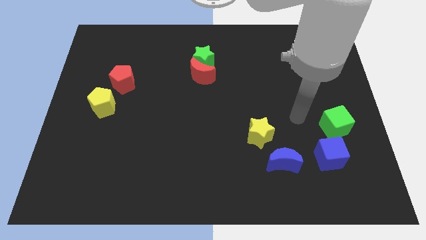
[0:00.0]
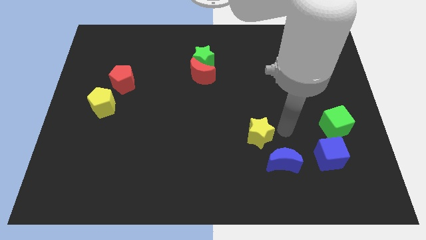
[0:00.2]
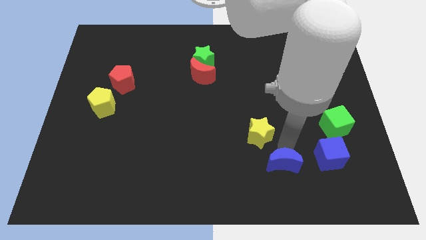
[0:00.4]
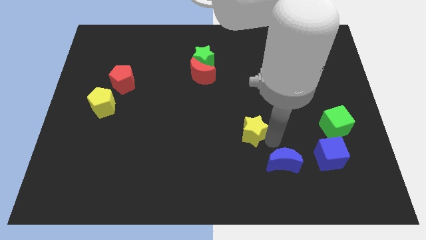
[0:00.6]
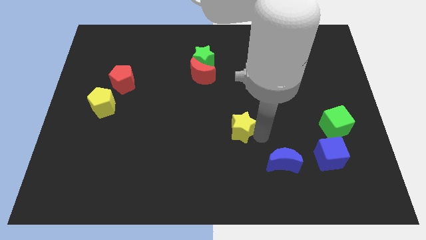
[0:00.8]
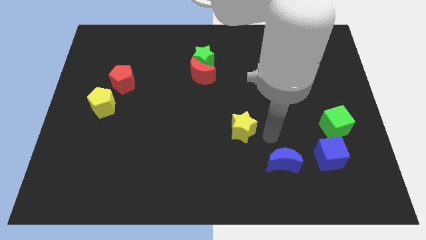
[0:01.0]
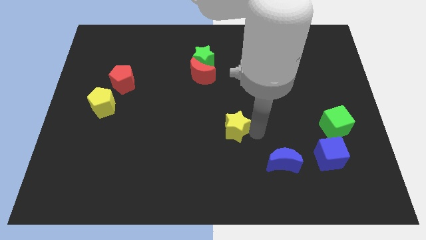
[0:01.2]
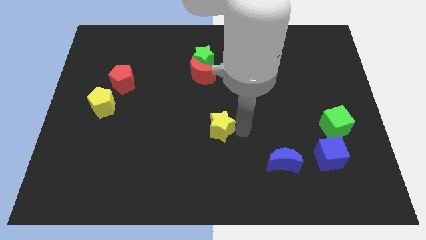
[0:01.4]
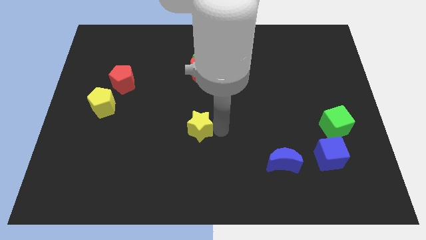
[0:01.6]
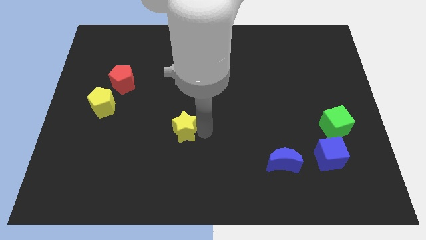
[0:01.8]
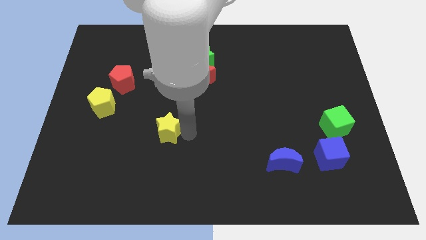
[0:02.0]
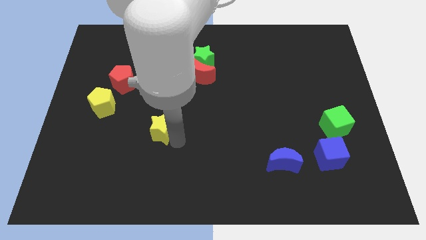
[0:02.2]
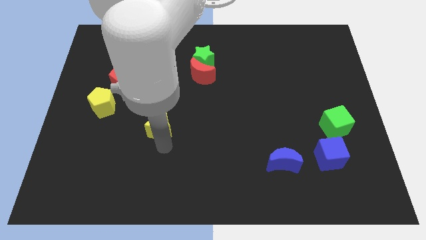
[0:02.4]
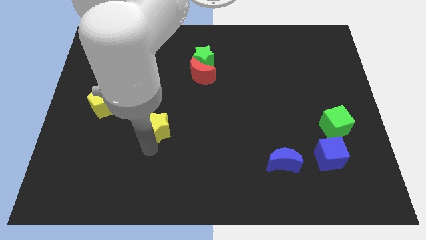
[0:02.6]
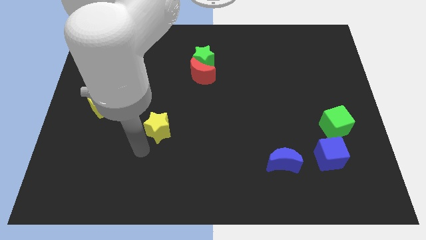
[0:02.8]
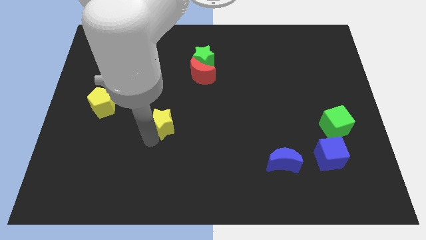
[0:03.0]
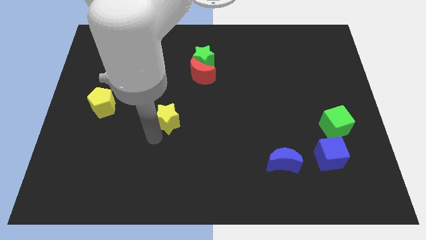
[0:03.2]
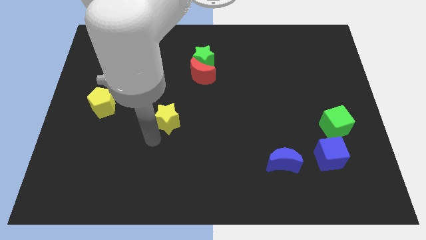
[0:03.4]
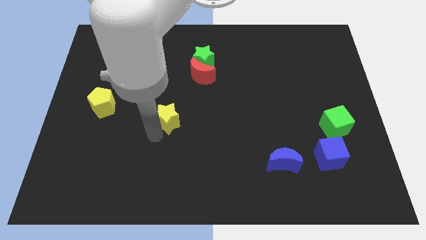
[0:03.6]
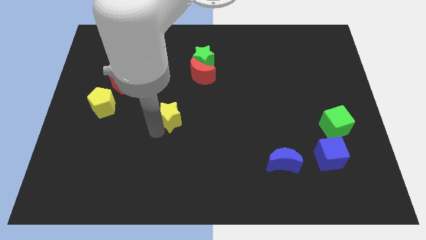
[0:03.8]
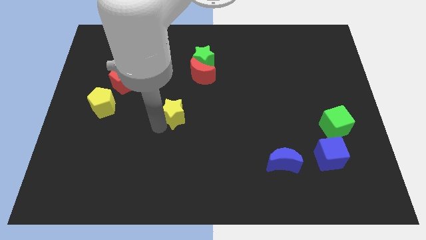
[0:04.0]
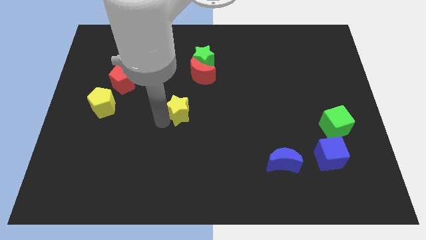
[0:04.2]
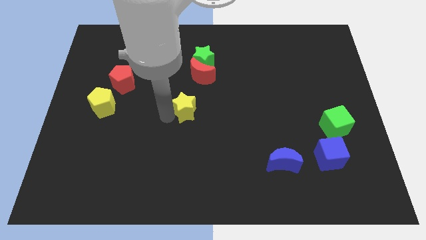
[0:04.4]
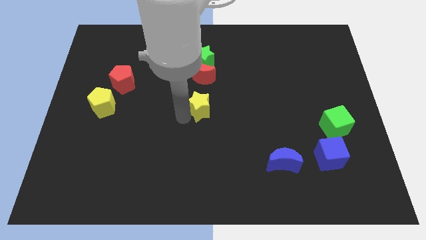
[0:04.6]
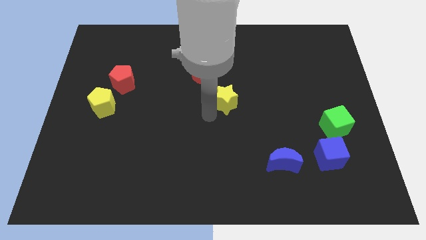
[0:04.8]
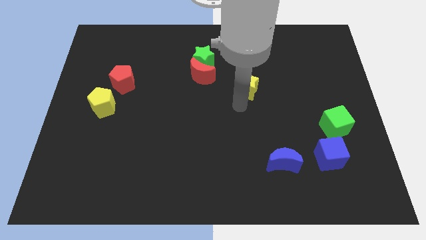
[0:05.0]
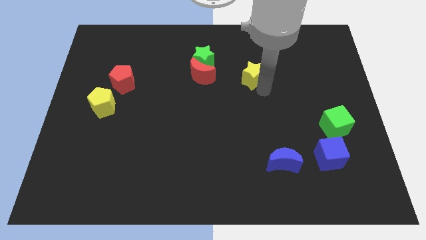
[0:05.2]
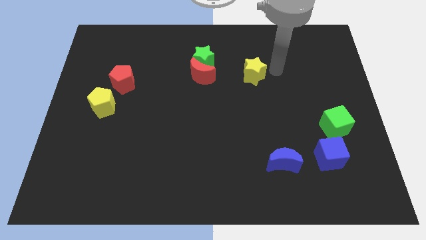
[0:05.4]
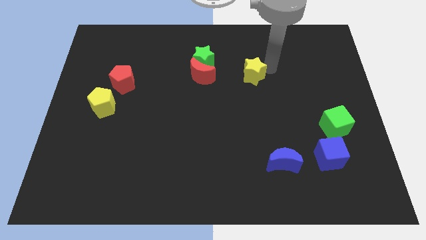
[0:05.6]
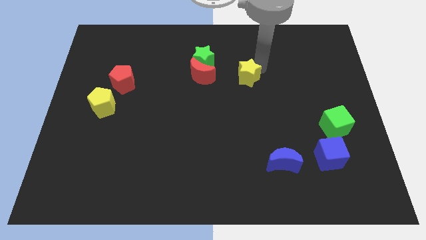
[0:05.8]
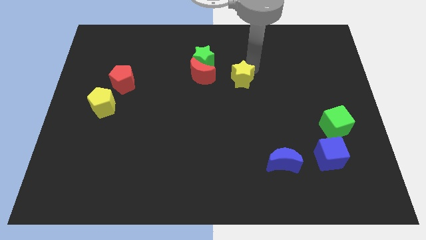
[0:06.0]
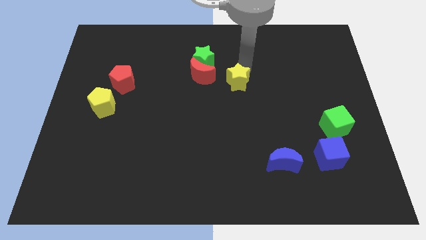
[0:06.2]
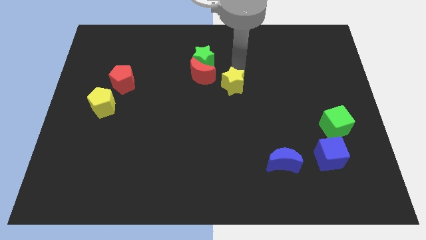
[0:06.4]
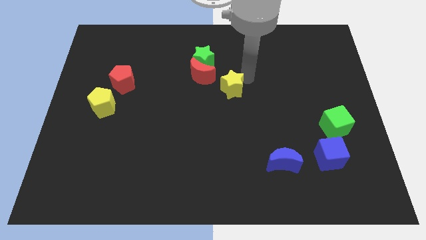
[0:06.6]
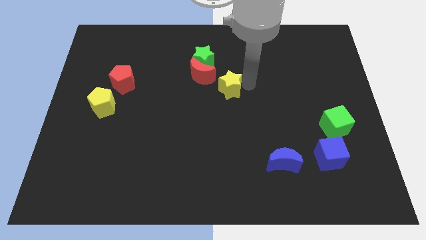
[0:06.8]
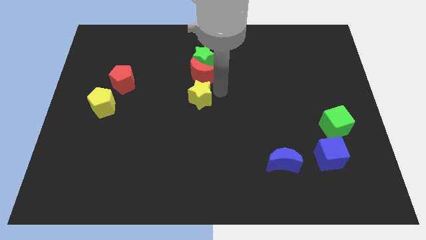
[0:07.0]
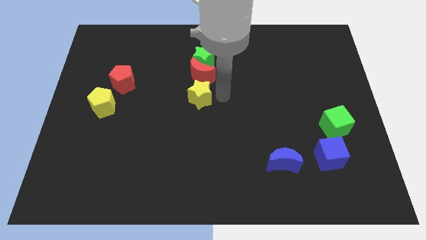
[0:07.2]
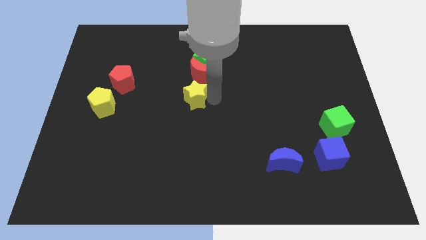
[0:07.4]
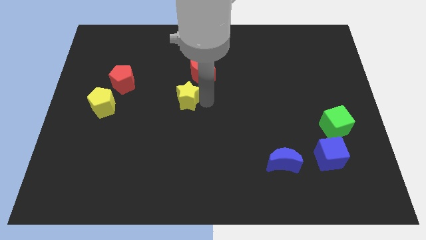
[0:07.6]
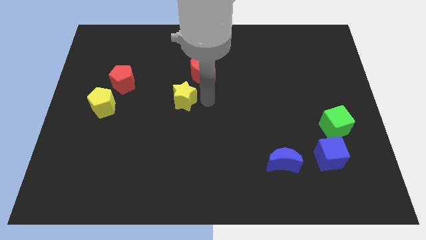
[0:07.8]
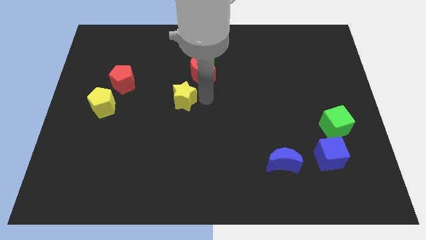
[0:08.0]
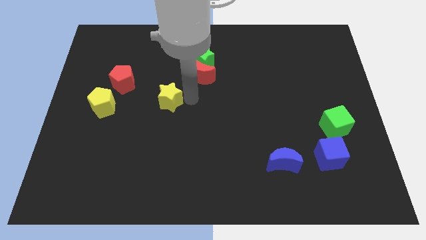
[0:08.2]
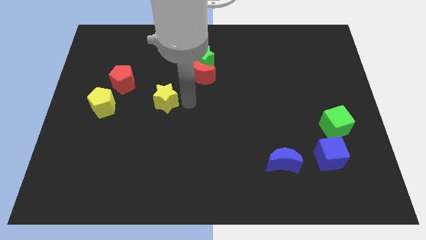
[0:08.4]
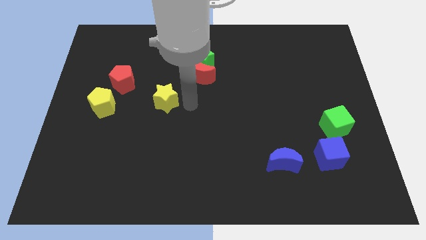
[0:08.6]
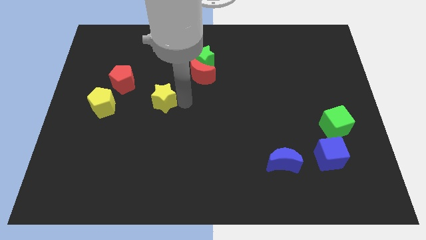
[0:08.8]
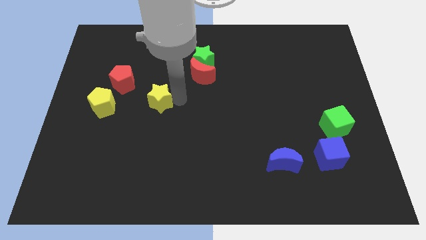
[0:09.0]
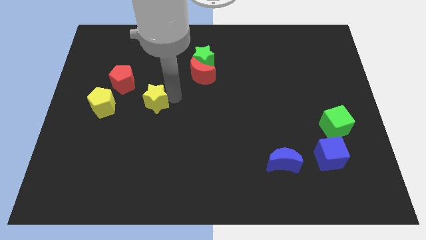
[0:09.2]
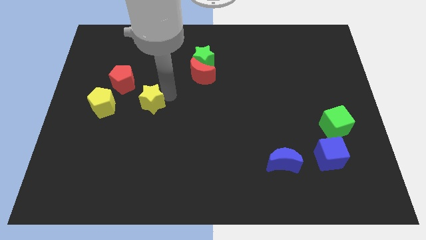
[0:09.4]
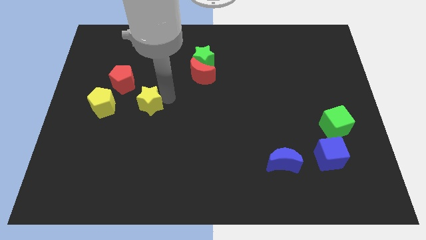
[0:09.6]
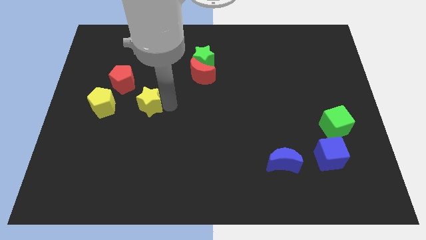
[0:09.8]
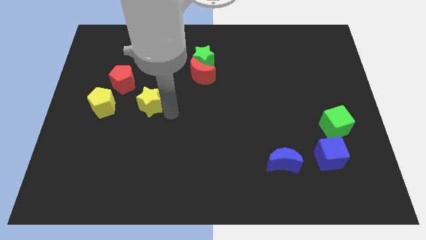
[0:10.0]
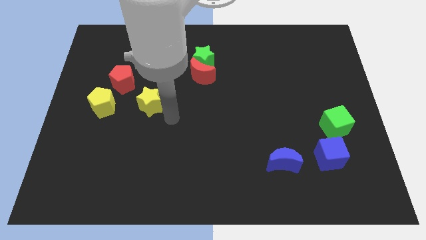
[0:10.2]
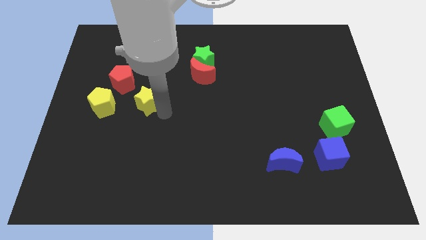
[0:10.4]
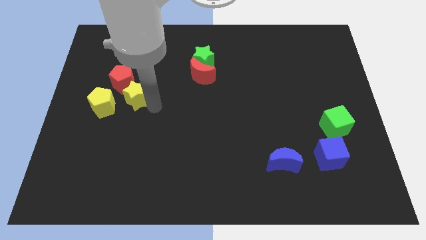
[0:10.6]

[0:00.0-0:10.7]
move the yellow star diagonally up and to the right of the yellow pentagon

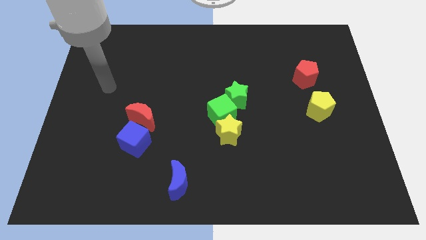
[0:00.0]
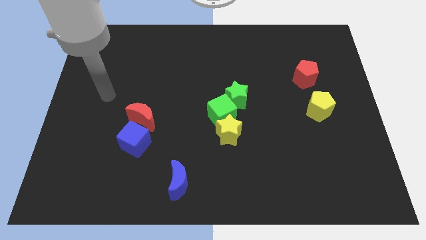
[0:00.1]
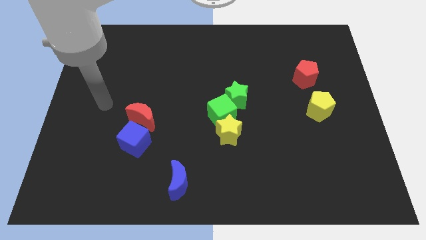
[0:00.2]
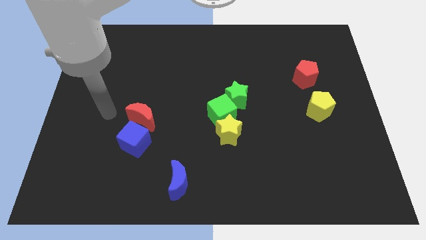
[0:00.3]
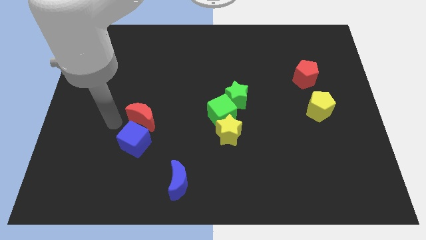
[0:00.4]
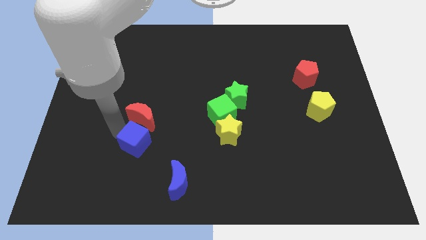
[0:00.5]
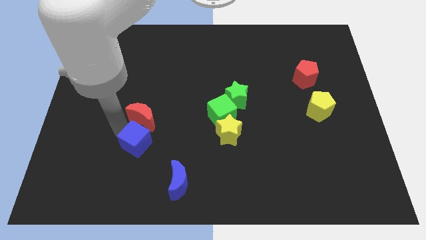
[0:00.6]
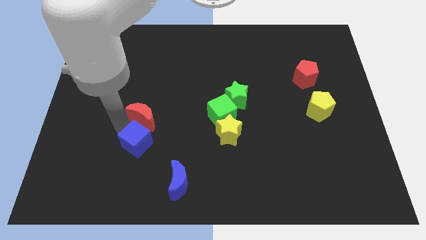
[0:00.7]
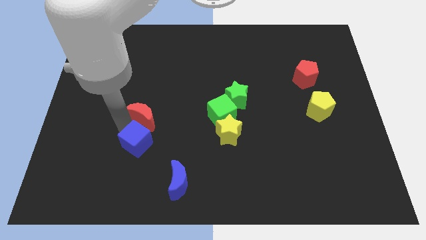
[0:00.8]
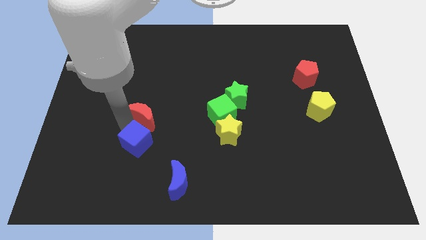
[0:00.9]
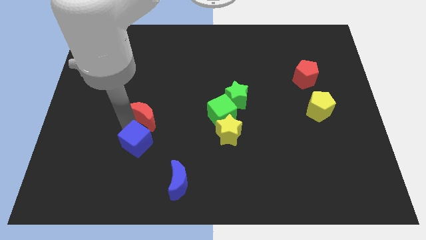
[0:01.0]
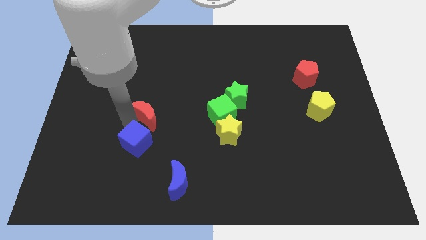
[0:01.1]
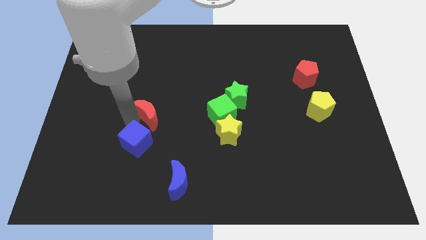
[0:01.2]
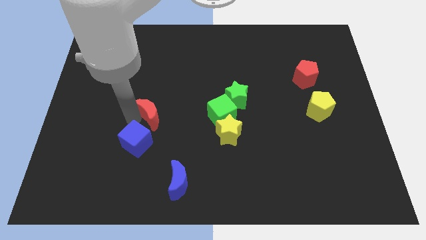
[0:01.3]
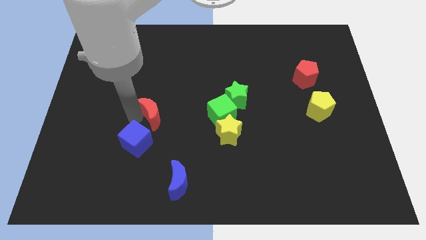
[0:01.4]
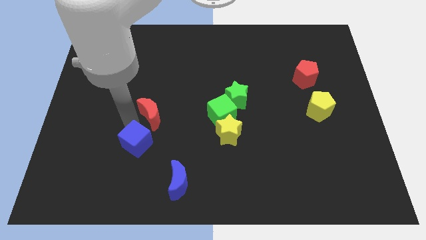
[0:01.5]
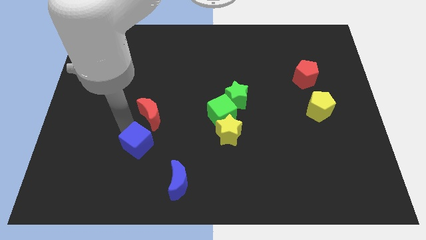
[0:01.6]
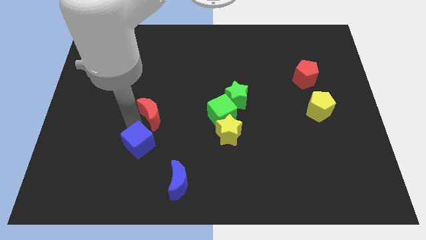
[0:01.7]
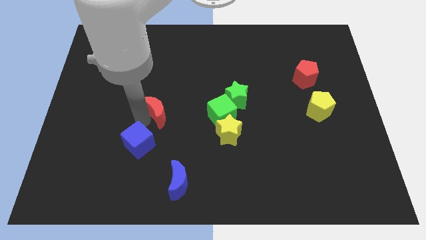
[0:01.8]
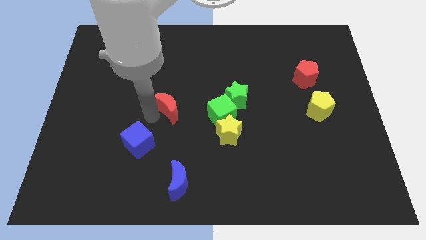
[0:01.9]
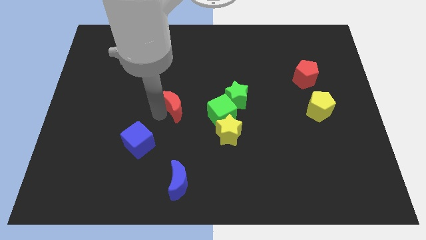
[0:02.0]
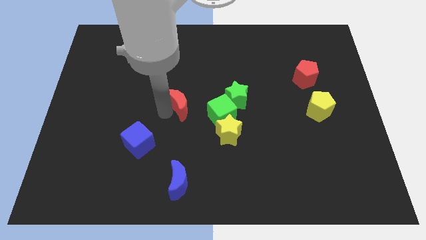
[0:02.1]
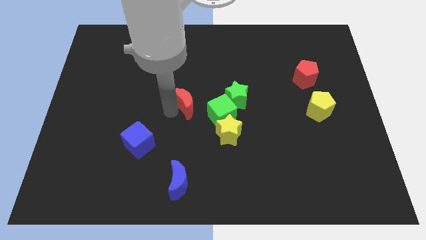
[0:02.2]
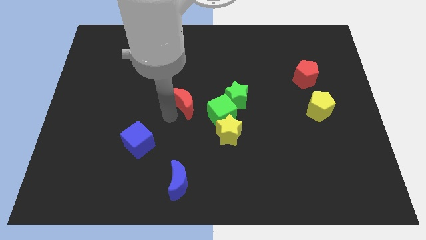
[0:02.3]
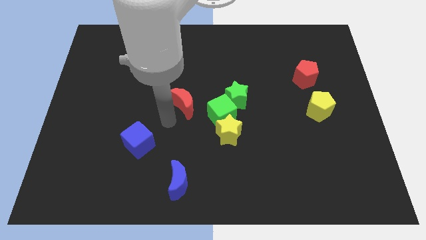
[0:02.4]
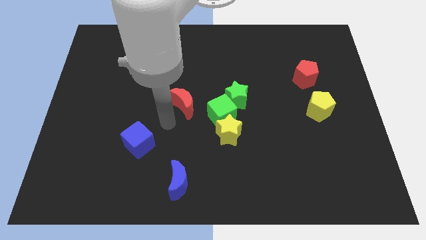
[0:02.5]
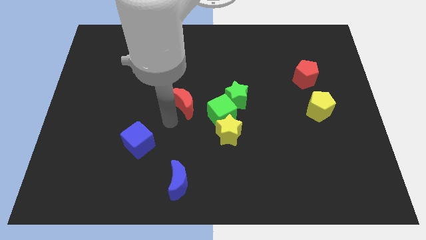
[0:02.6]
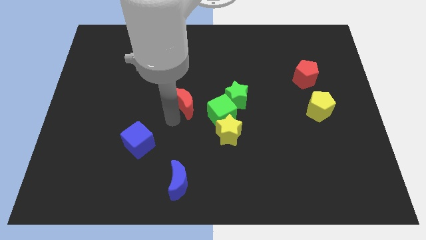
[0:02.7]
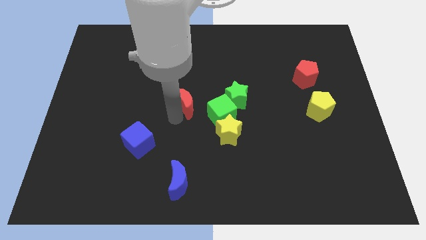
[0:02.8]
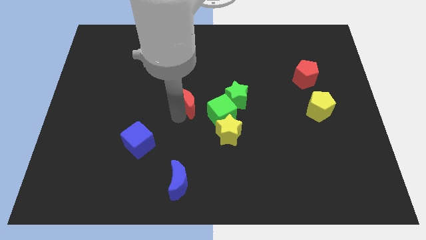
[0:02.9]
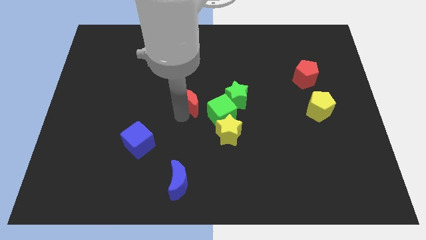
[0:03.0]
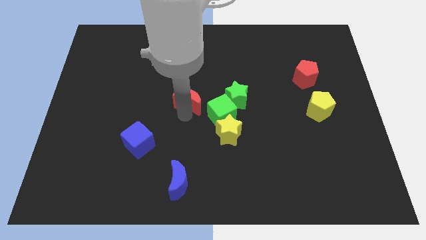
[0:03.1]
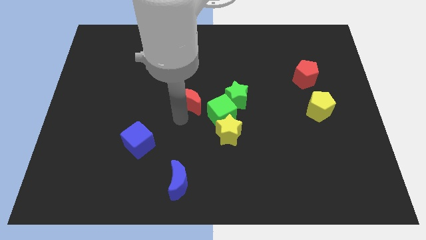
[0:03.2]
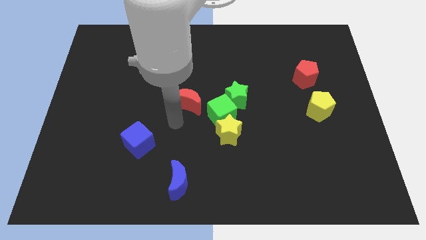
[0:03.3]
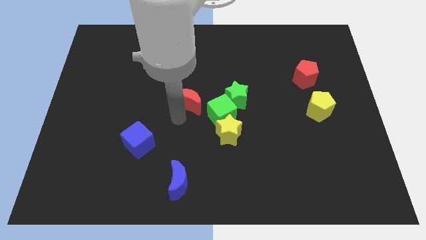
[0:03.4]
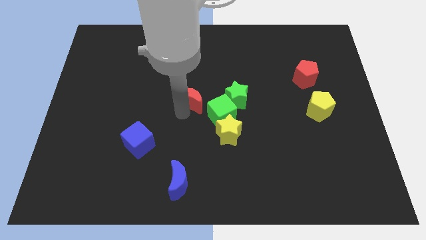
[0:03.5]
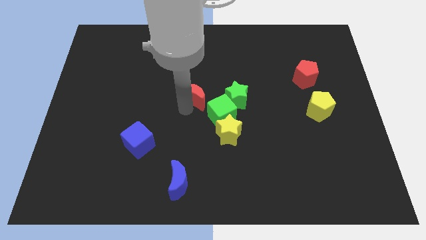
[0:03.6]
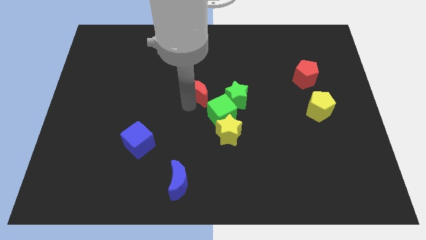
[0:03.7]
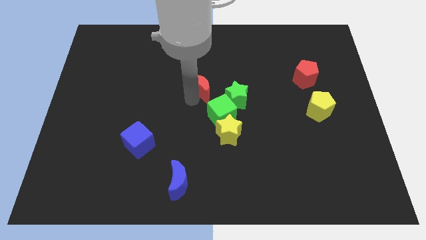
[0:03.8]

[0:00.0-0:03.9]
move the red moon diagonally up and to the left of the green star
